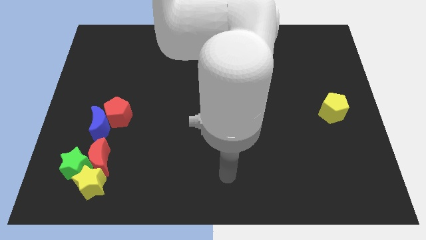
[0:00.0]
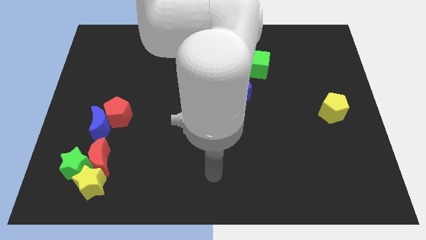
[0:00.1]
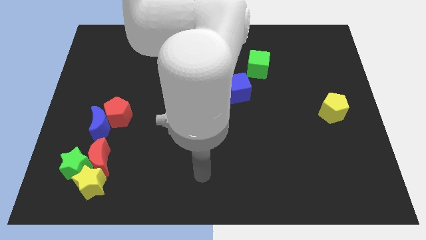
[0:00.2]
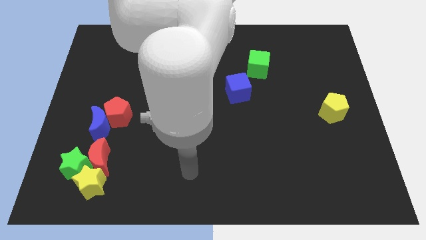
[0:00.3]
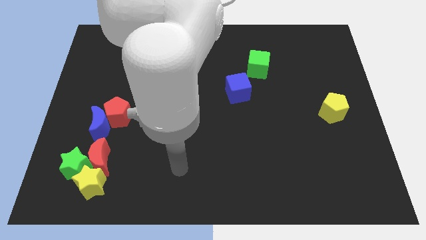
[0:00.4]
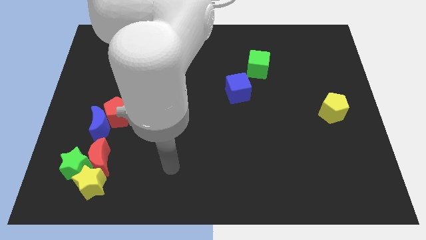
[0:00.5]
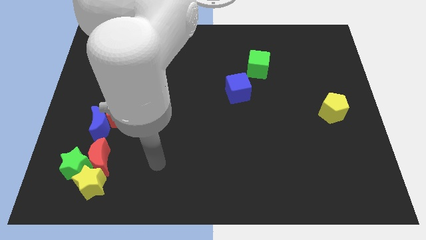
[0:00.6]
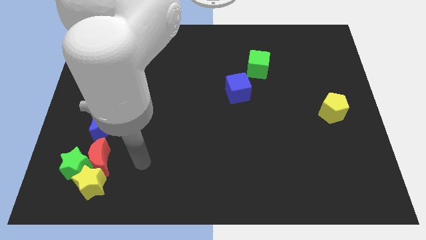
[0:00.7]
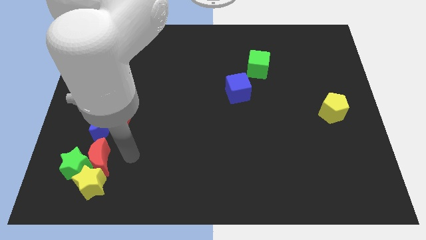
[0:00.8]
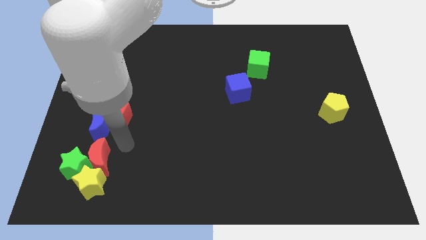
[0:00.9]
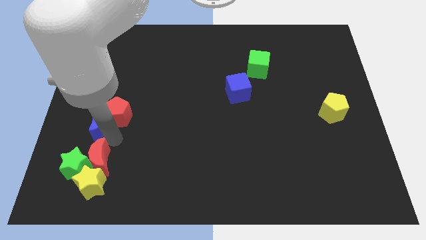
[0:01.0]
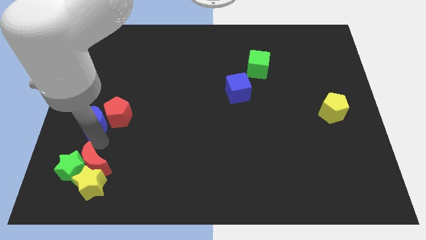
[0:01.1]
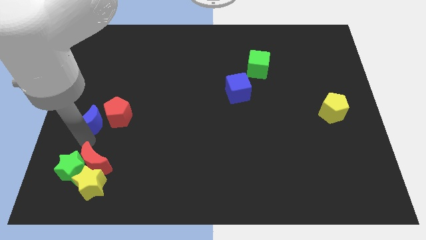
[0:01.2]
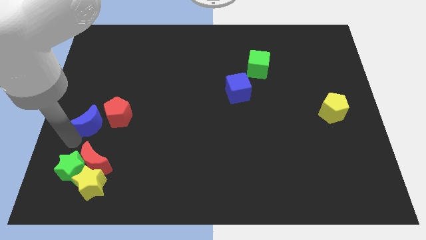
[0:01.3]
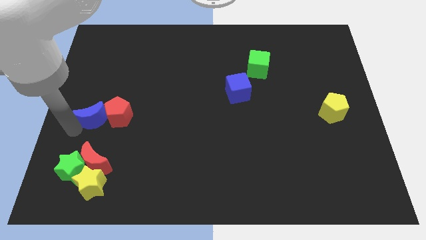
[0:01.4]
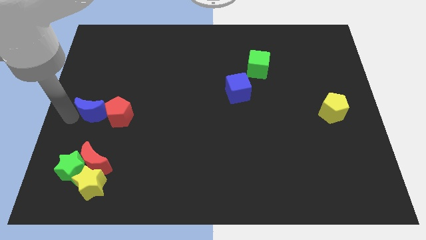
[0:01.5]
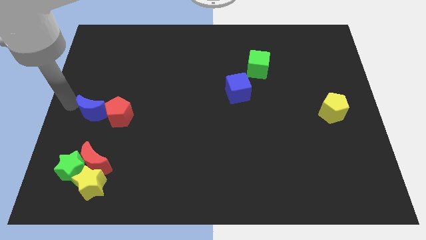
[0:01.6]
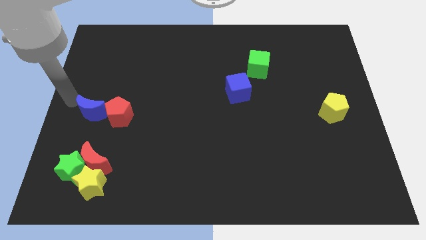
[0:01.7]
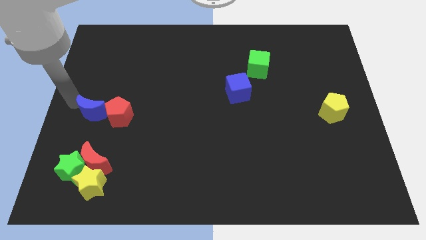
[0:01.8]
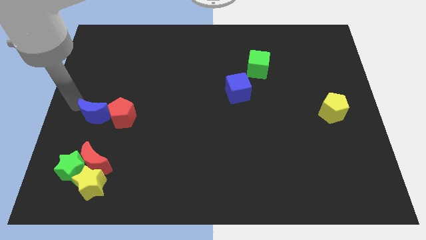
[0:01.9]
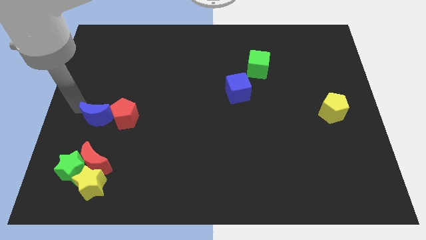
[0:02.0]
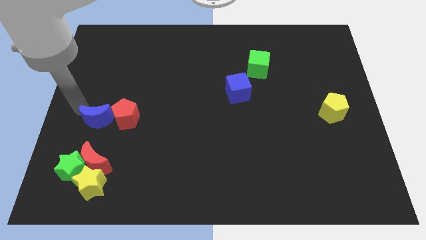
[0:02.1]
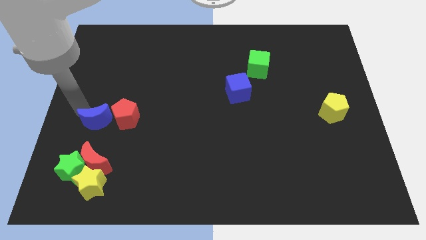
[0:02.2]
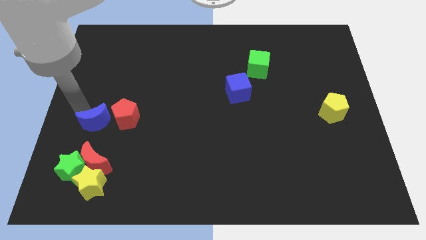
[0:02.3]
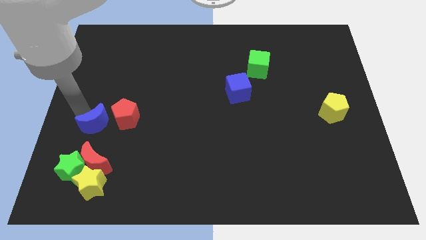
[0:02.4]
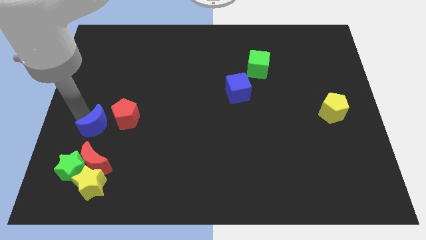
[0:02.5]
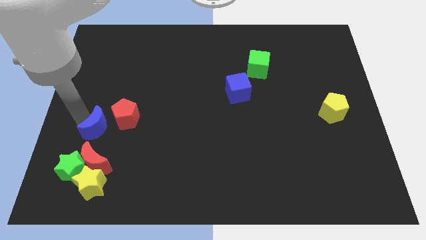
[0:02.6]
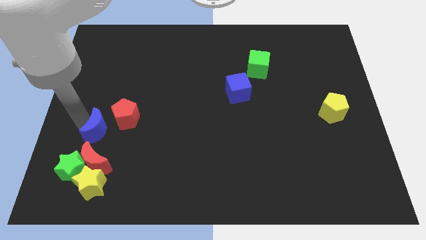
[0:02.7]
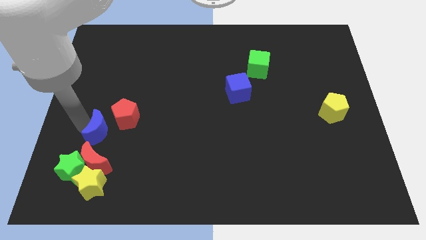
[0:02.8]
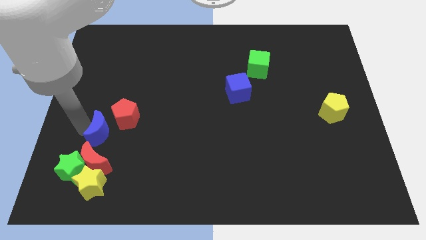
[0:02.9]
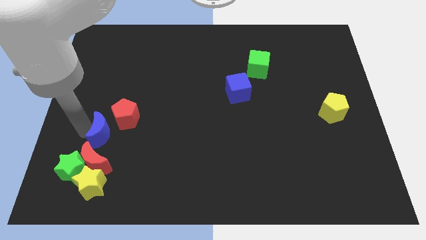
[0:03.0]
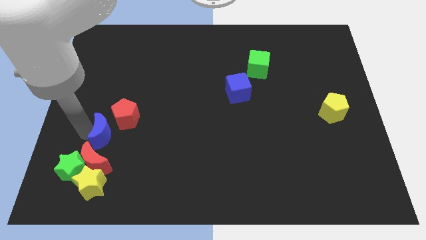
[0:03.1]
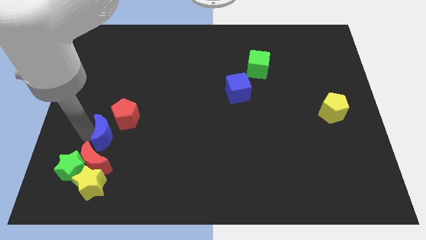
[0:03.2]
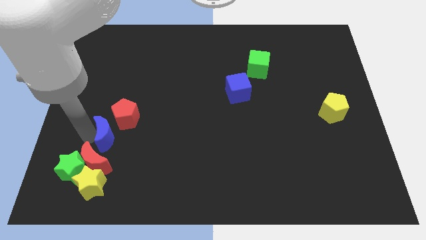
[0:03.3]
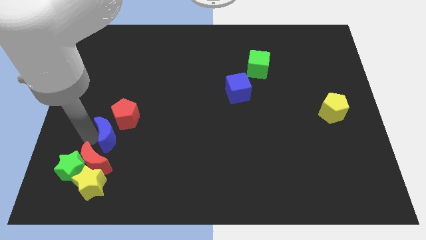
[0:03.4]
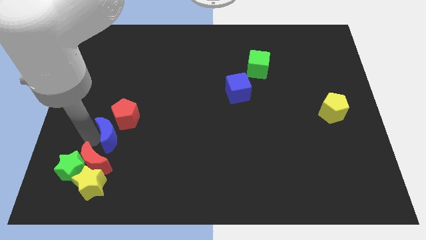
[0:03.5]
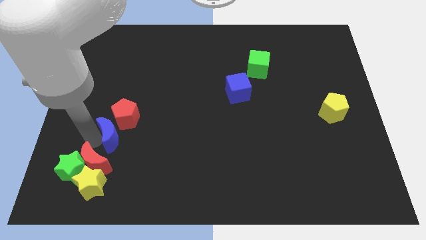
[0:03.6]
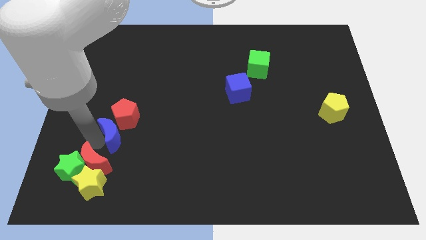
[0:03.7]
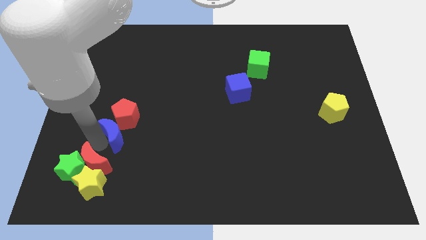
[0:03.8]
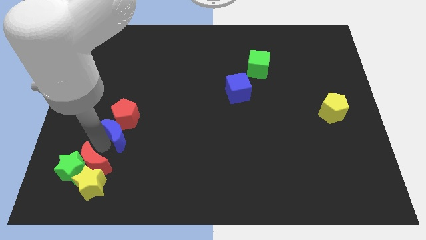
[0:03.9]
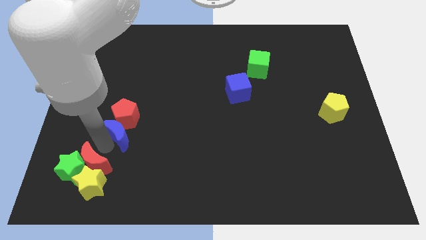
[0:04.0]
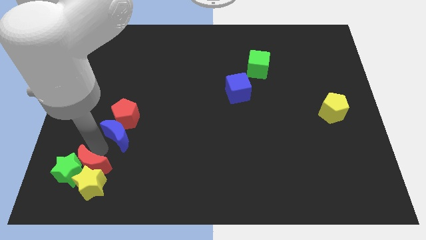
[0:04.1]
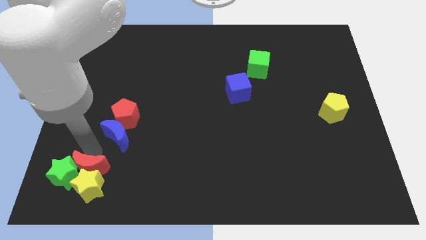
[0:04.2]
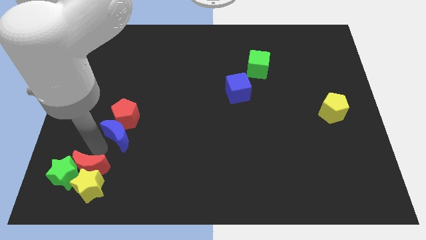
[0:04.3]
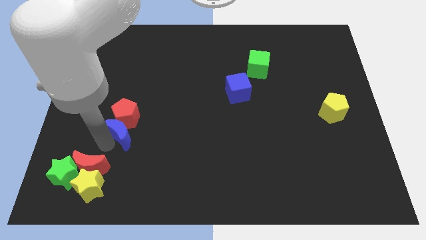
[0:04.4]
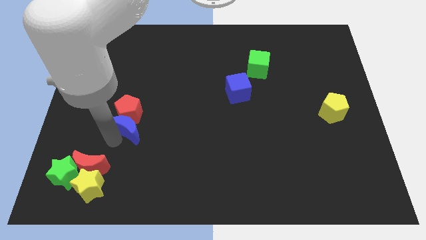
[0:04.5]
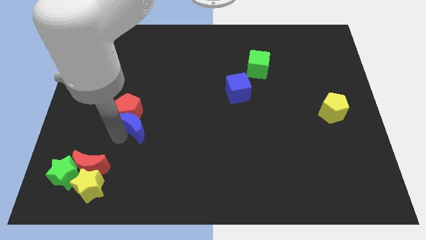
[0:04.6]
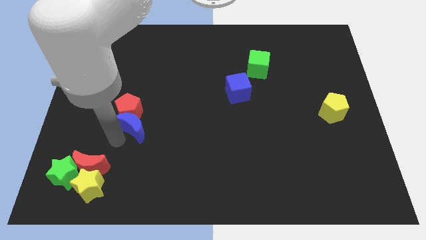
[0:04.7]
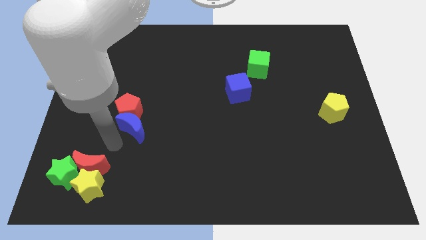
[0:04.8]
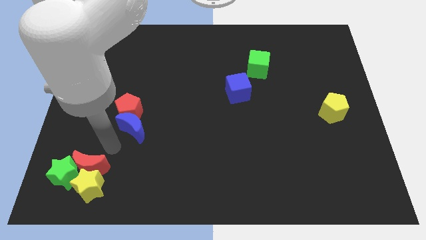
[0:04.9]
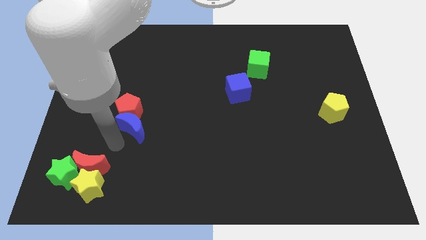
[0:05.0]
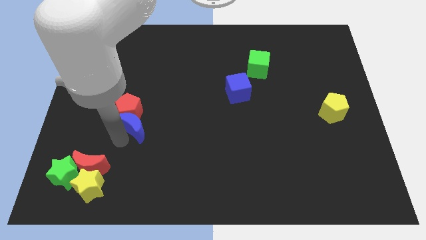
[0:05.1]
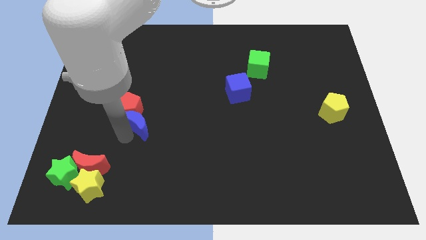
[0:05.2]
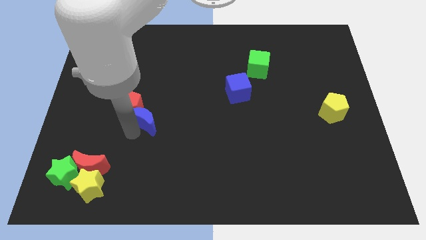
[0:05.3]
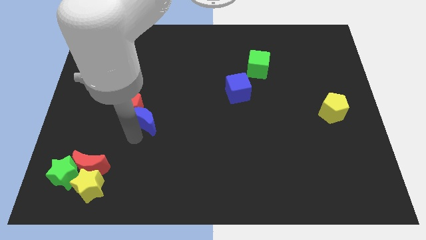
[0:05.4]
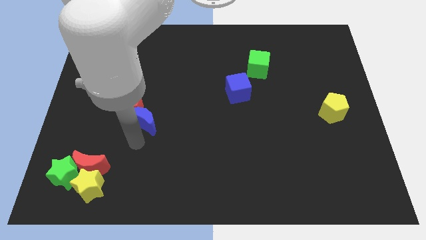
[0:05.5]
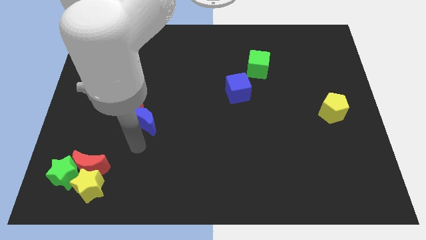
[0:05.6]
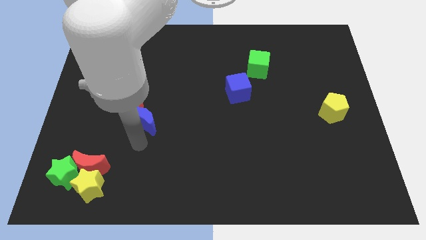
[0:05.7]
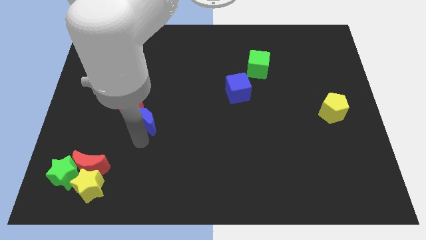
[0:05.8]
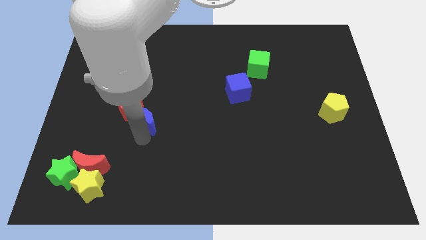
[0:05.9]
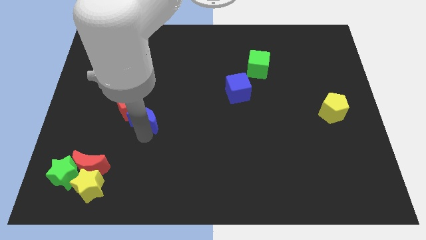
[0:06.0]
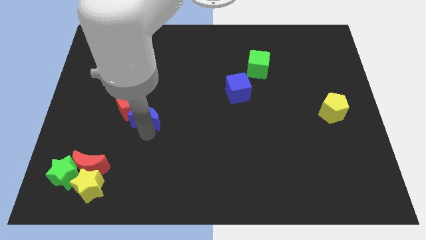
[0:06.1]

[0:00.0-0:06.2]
slightly slide the blue moon up and then to the right

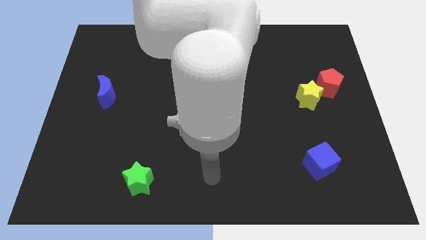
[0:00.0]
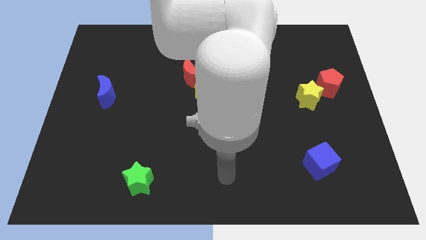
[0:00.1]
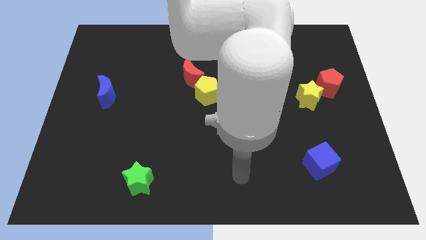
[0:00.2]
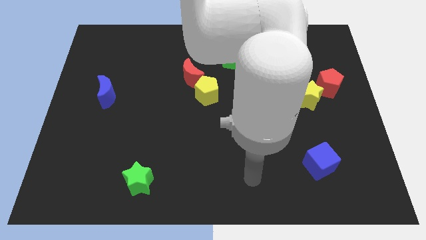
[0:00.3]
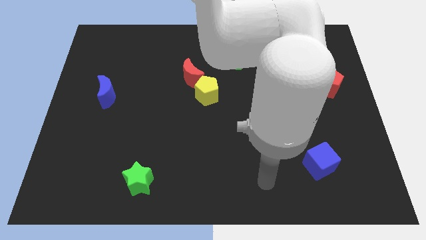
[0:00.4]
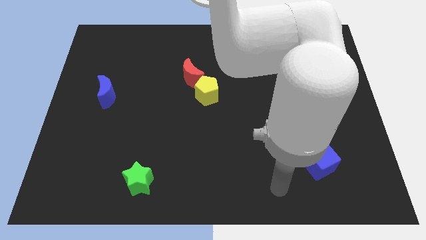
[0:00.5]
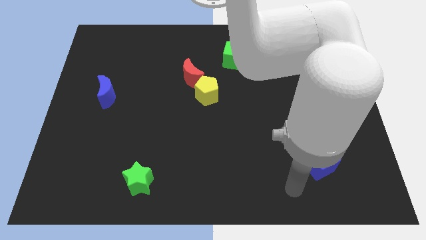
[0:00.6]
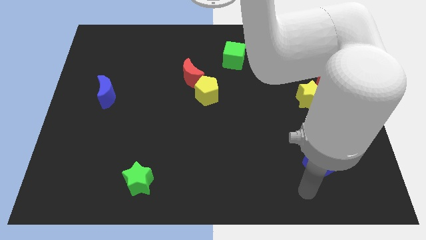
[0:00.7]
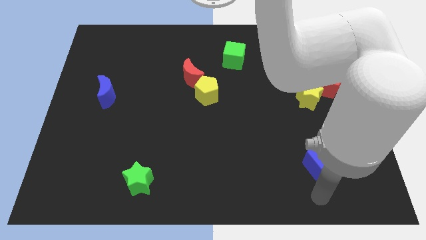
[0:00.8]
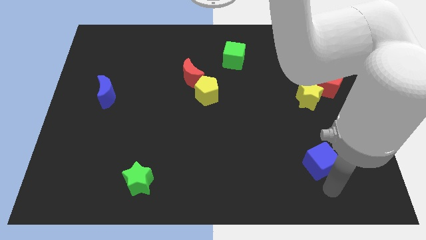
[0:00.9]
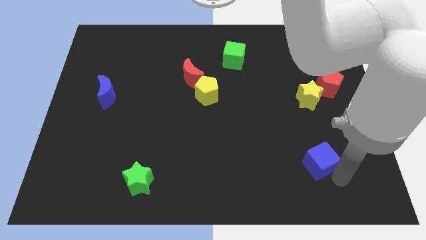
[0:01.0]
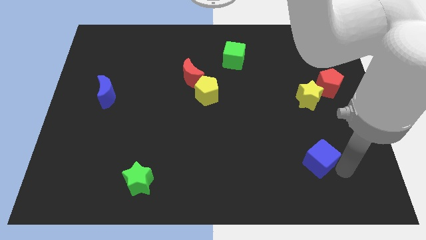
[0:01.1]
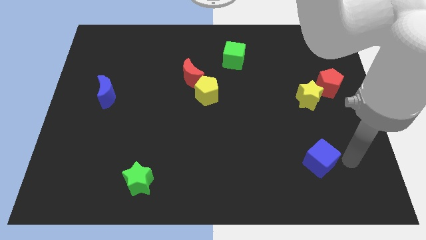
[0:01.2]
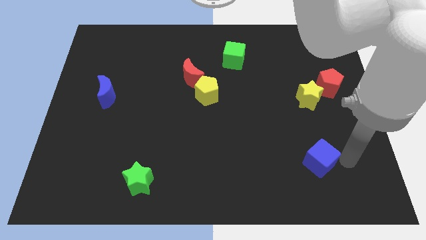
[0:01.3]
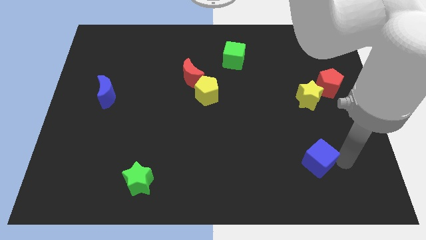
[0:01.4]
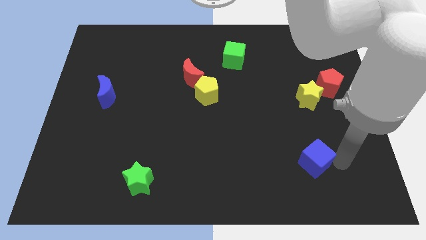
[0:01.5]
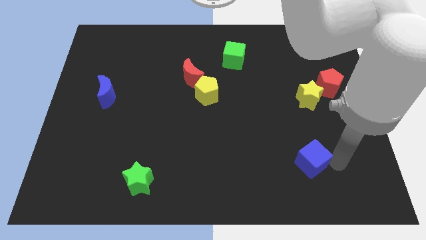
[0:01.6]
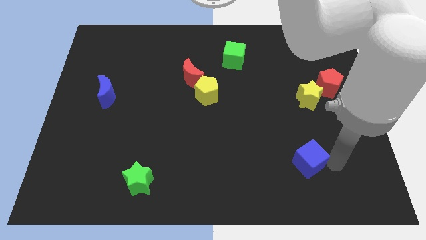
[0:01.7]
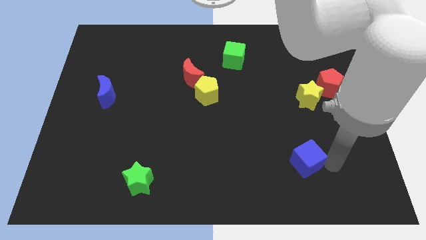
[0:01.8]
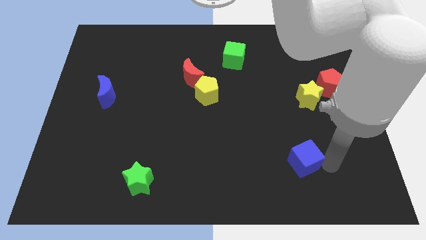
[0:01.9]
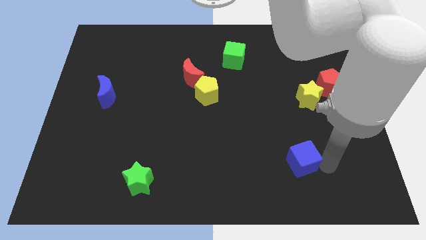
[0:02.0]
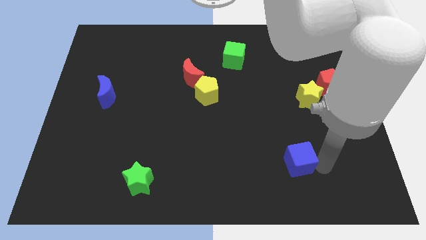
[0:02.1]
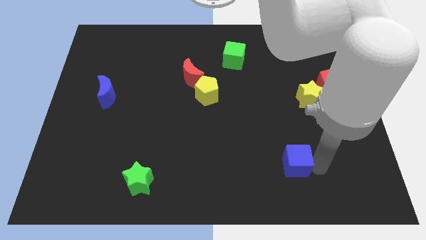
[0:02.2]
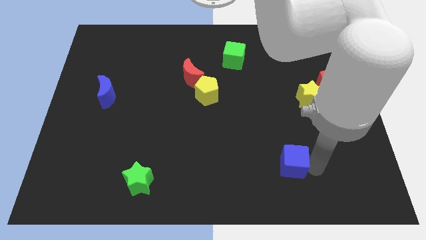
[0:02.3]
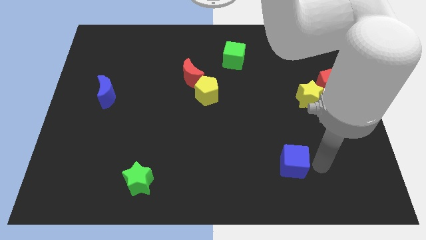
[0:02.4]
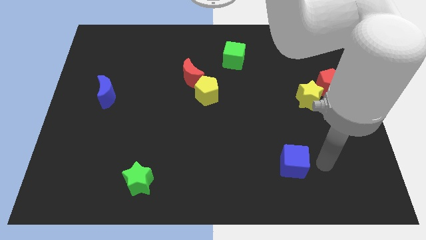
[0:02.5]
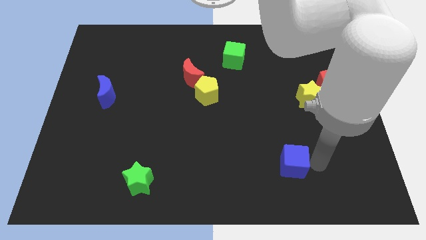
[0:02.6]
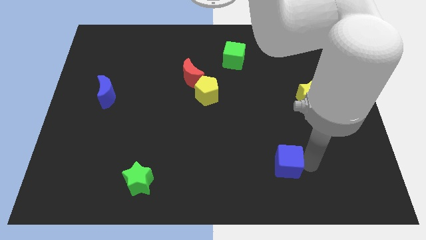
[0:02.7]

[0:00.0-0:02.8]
slightly push the blue cube to the left
